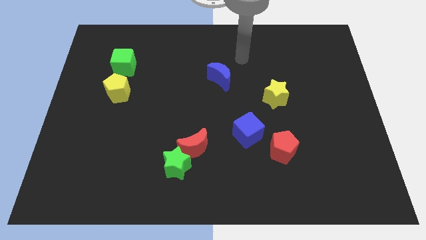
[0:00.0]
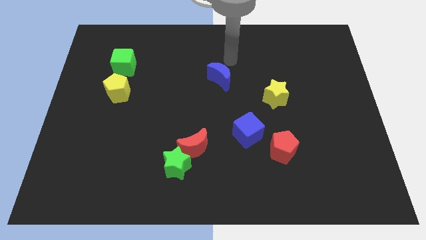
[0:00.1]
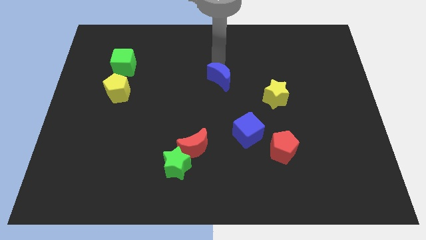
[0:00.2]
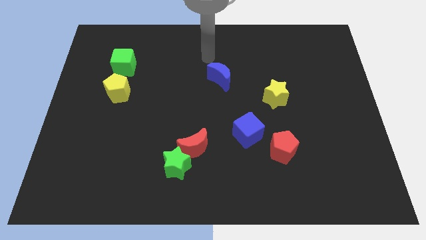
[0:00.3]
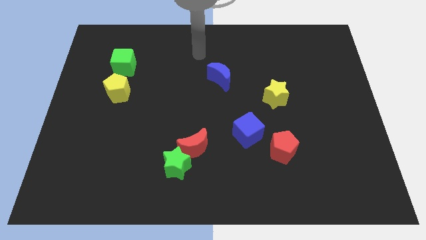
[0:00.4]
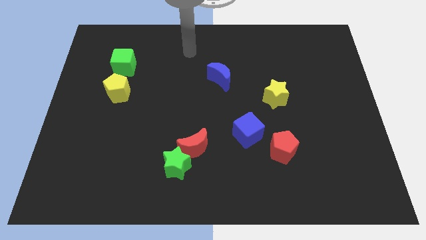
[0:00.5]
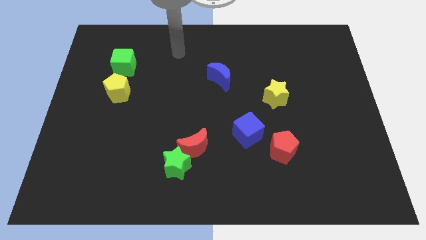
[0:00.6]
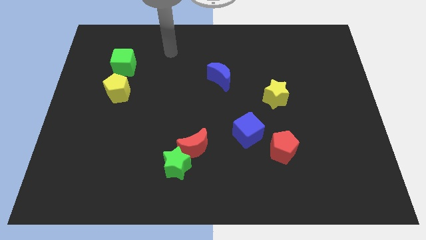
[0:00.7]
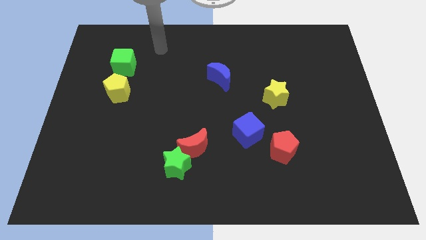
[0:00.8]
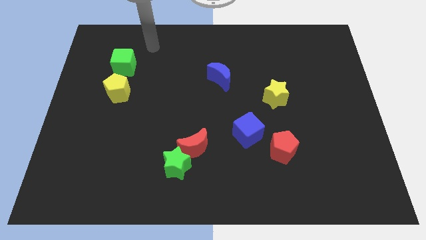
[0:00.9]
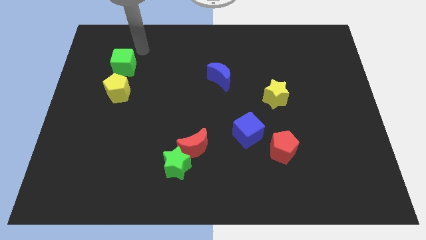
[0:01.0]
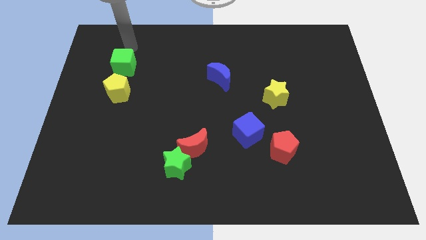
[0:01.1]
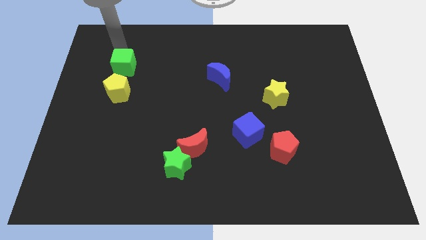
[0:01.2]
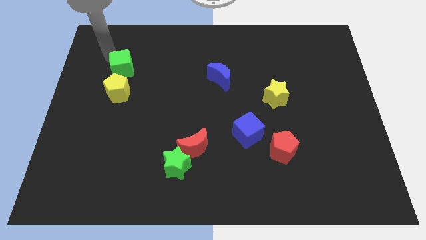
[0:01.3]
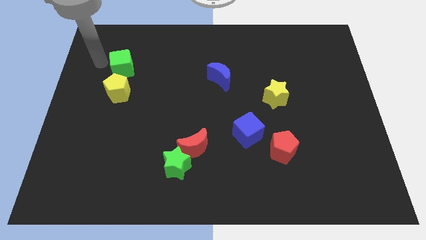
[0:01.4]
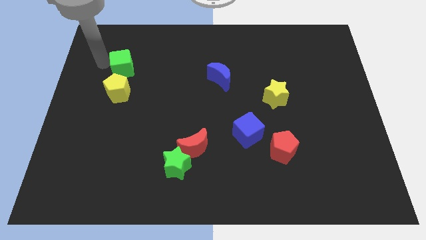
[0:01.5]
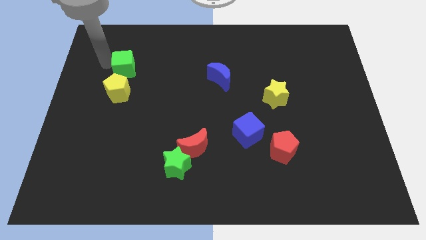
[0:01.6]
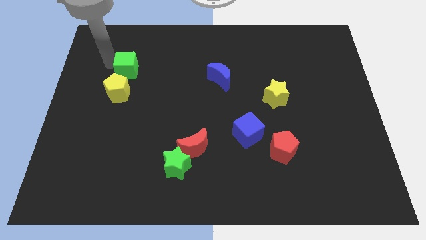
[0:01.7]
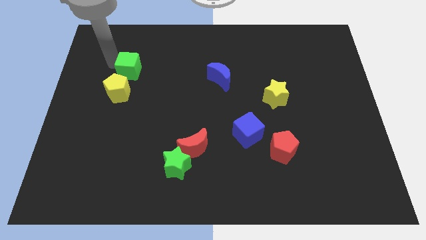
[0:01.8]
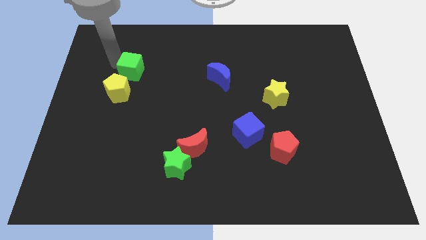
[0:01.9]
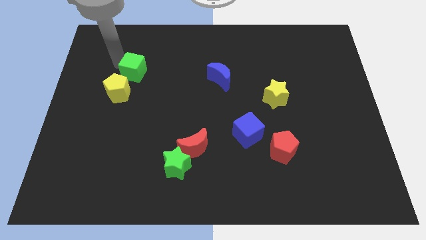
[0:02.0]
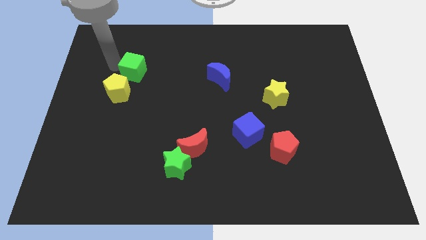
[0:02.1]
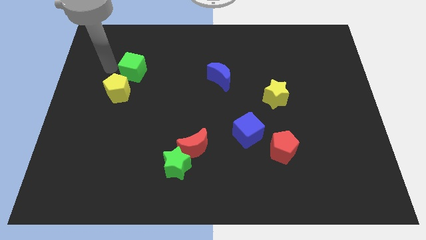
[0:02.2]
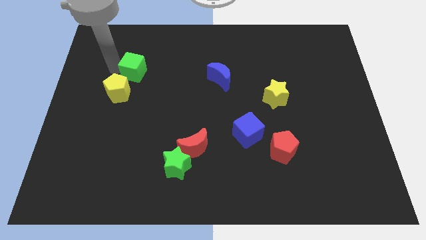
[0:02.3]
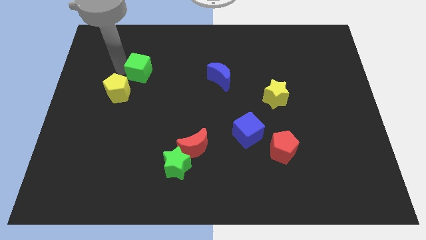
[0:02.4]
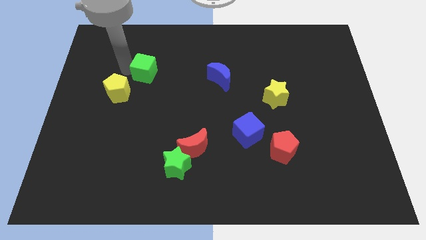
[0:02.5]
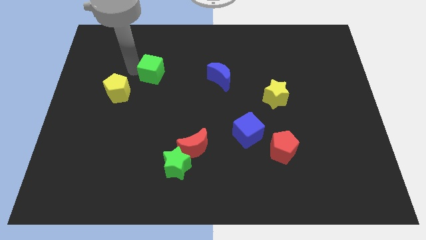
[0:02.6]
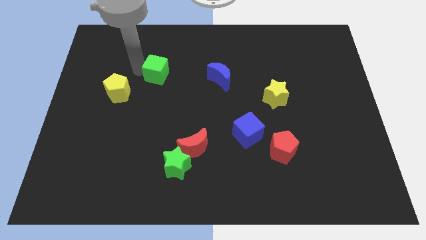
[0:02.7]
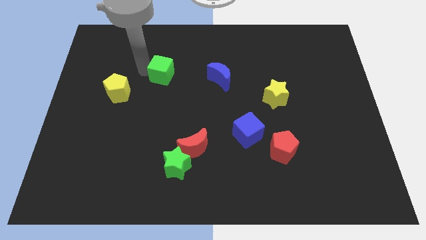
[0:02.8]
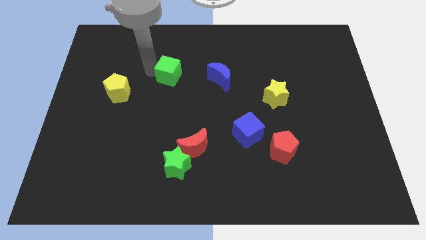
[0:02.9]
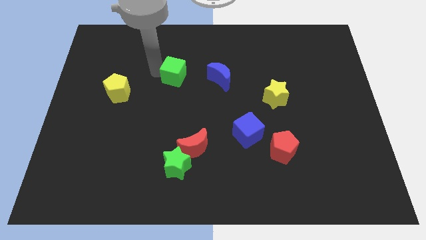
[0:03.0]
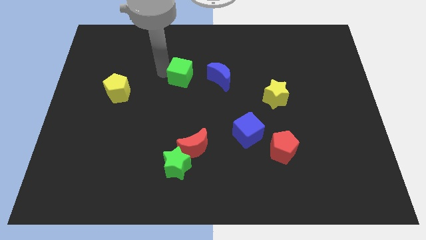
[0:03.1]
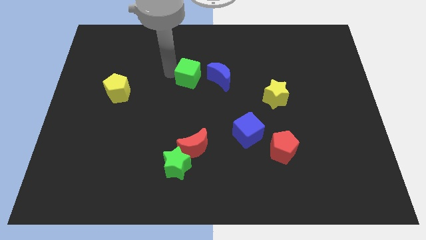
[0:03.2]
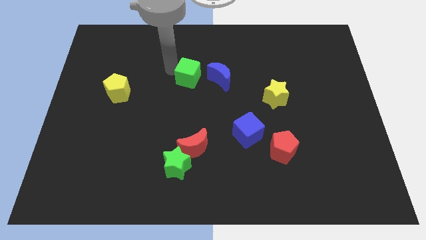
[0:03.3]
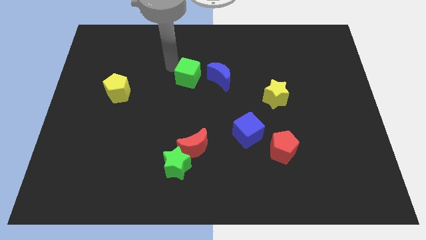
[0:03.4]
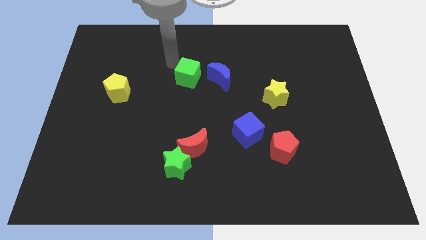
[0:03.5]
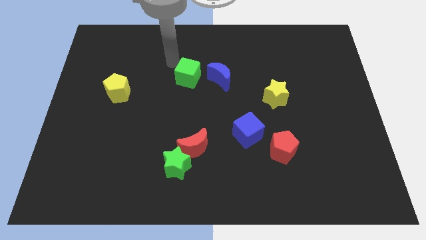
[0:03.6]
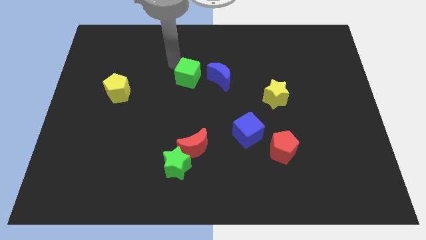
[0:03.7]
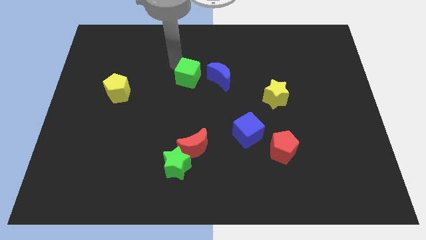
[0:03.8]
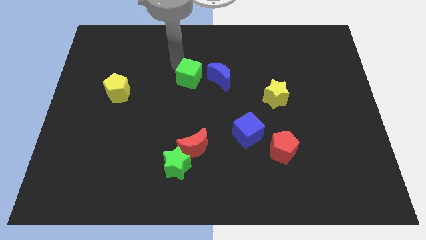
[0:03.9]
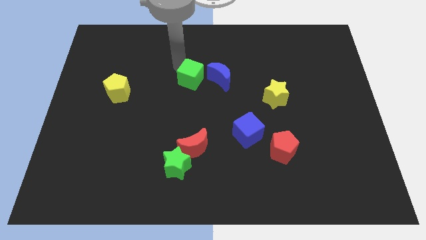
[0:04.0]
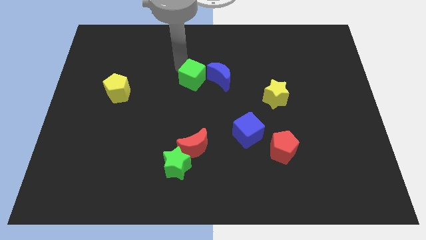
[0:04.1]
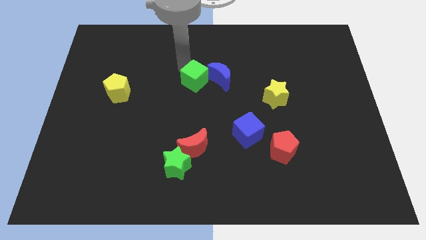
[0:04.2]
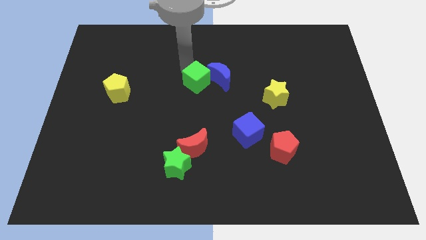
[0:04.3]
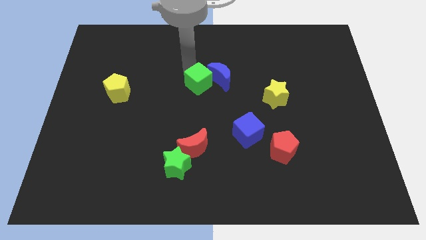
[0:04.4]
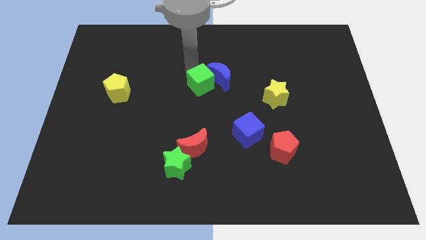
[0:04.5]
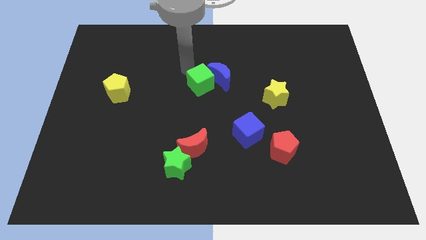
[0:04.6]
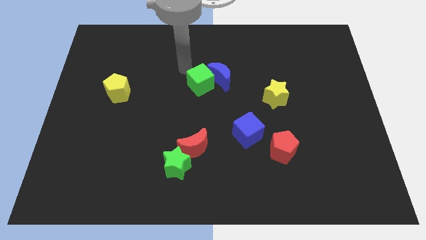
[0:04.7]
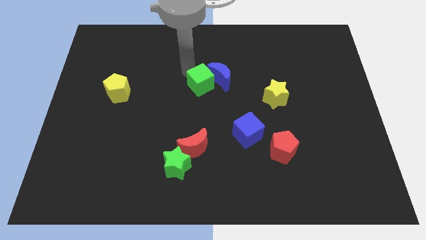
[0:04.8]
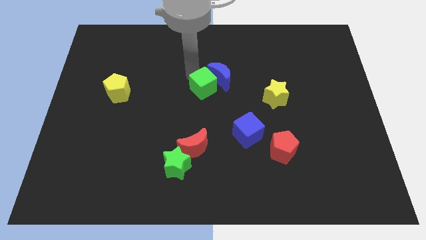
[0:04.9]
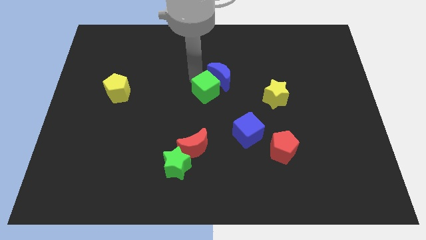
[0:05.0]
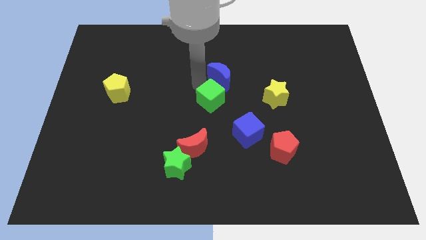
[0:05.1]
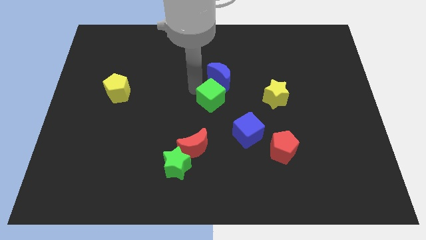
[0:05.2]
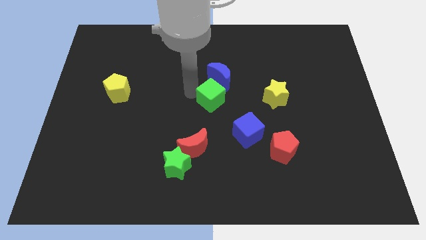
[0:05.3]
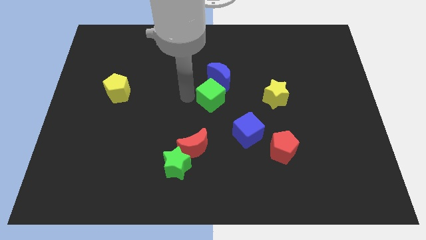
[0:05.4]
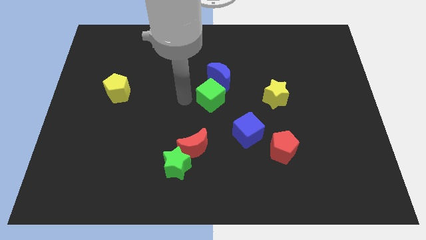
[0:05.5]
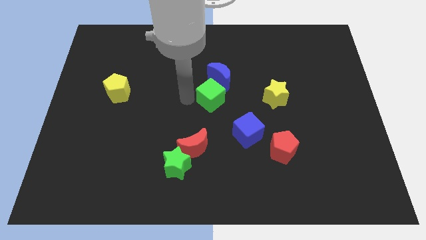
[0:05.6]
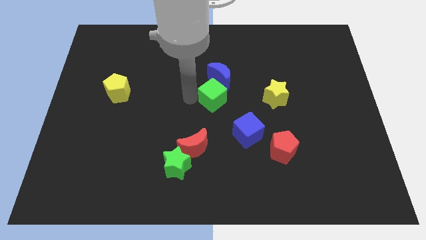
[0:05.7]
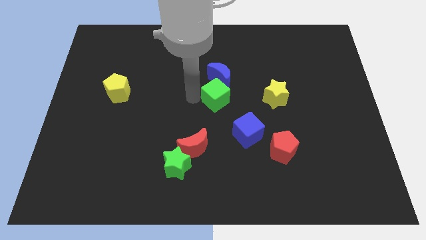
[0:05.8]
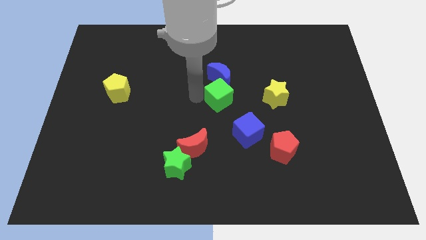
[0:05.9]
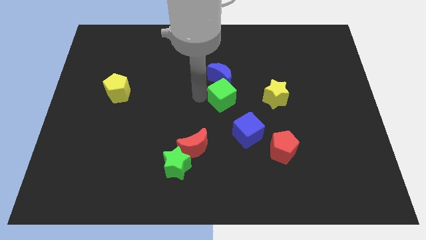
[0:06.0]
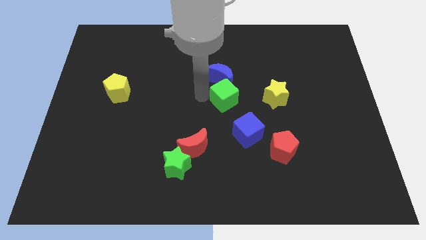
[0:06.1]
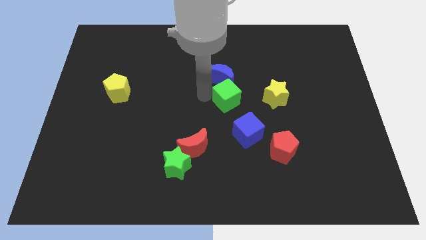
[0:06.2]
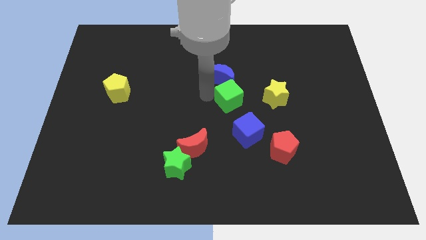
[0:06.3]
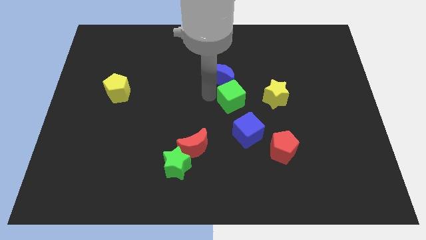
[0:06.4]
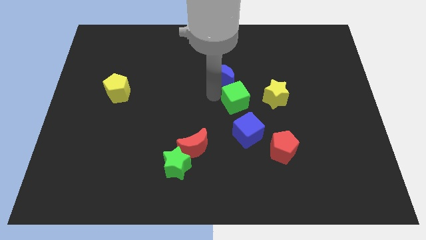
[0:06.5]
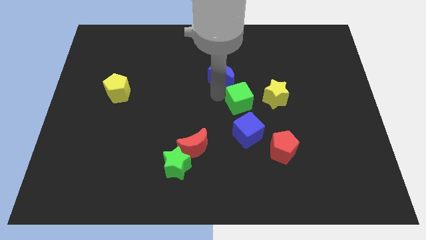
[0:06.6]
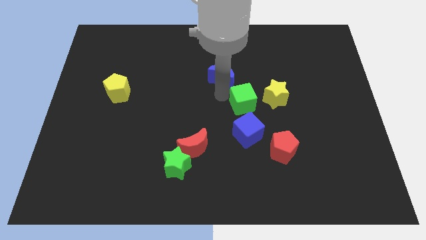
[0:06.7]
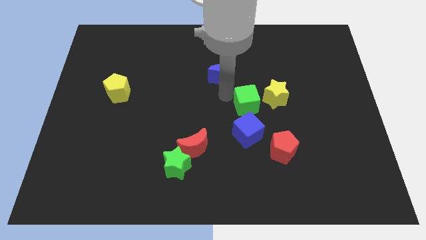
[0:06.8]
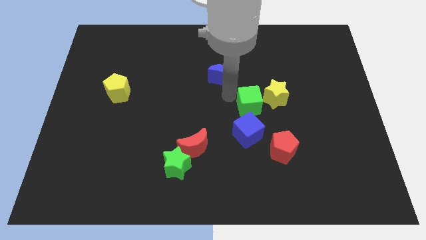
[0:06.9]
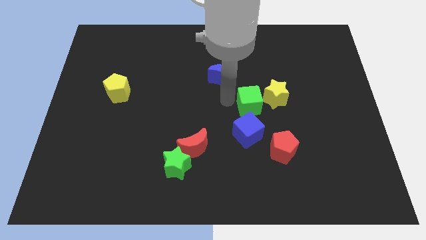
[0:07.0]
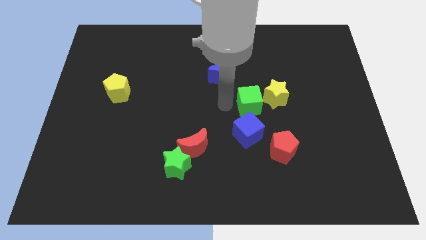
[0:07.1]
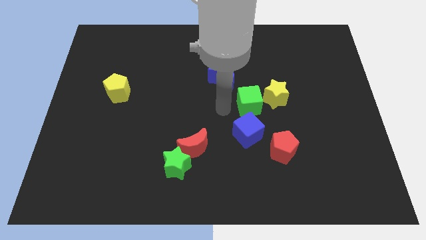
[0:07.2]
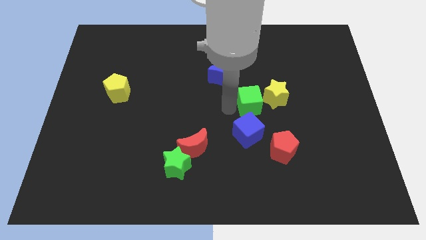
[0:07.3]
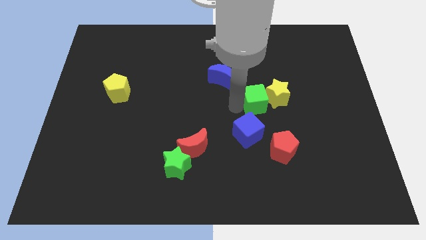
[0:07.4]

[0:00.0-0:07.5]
move the green cube towards the yellow star

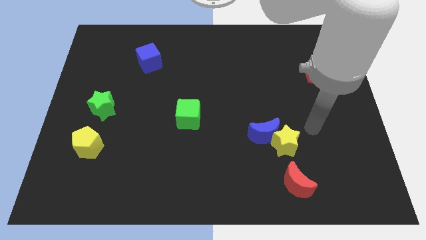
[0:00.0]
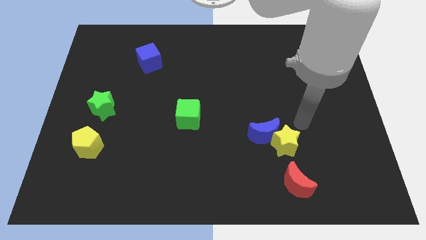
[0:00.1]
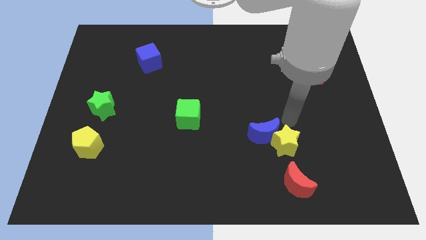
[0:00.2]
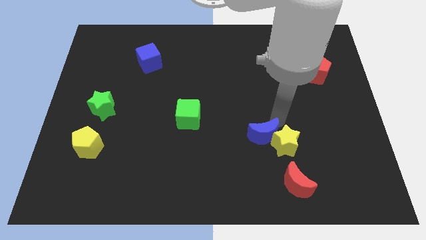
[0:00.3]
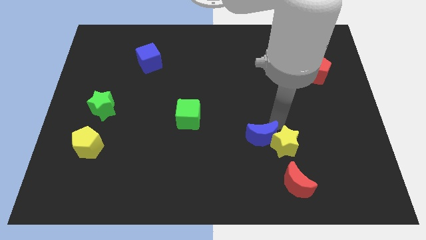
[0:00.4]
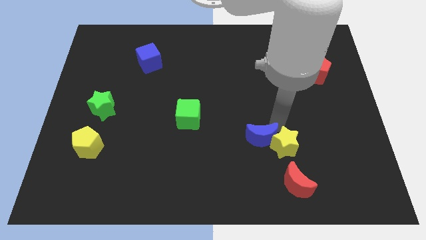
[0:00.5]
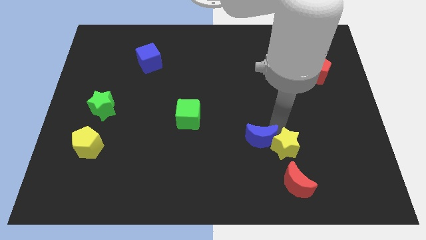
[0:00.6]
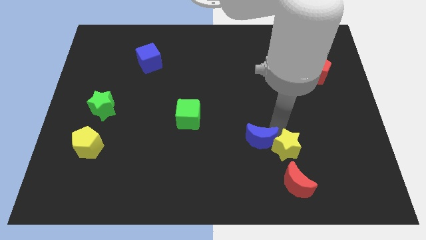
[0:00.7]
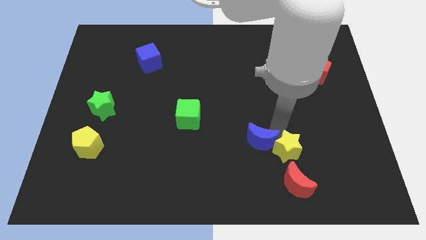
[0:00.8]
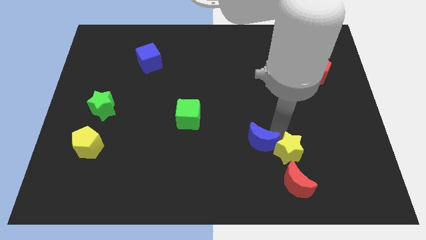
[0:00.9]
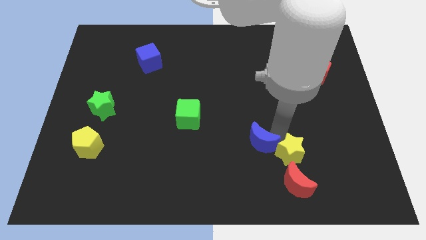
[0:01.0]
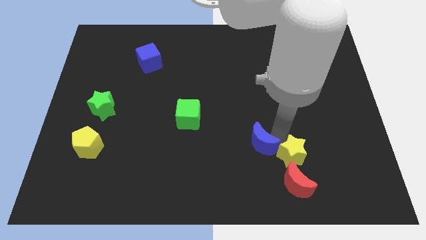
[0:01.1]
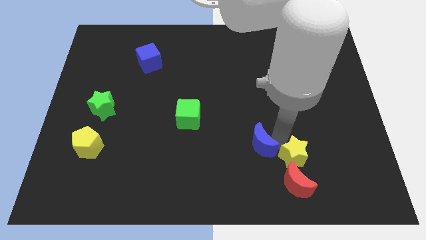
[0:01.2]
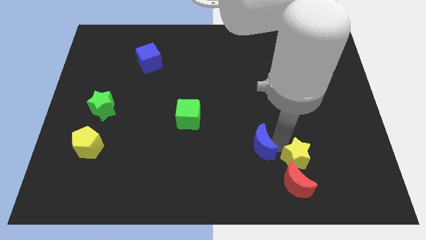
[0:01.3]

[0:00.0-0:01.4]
push the yellow star to the red moon
